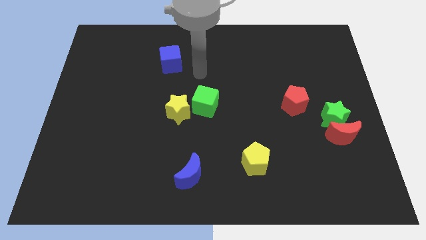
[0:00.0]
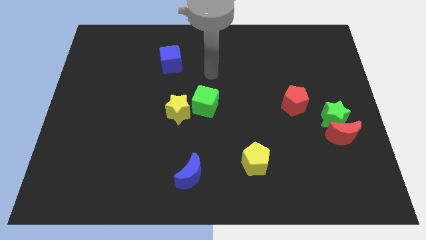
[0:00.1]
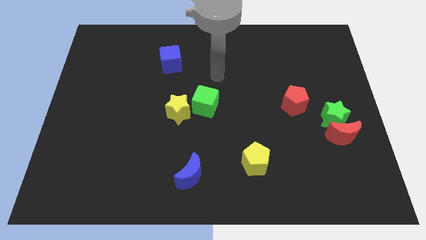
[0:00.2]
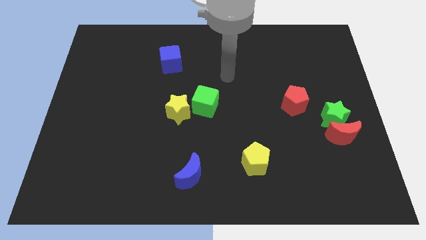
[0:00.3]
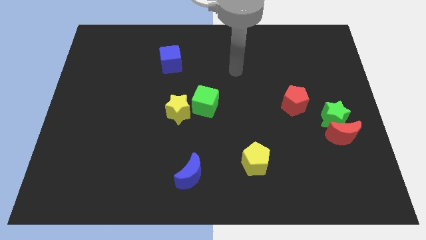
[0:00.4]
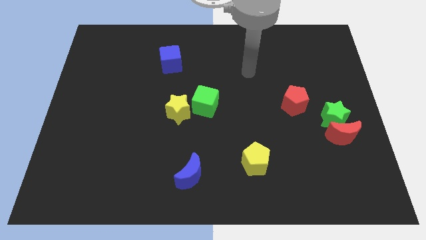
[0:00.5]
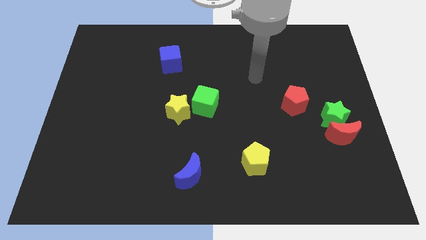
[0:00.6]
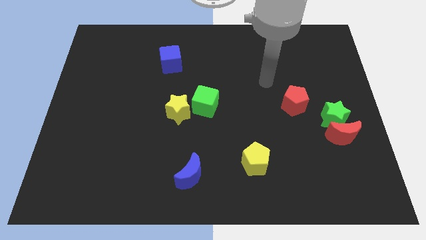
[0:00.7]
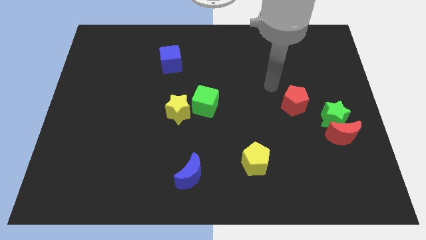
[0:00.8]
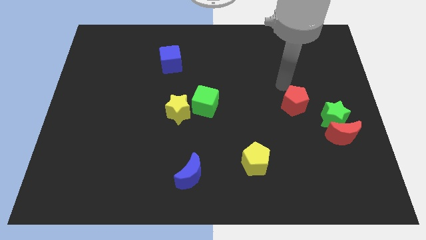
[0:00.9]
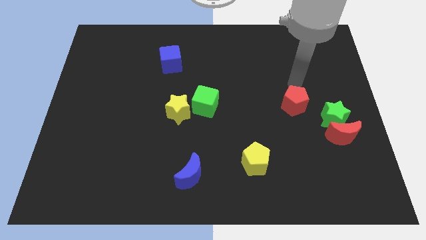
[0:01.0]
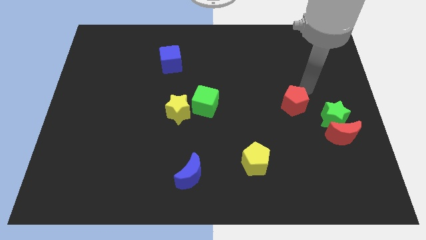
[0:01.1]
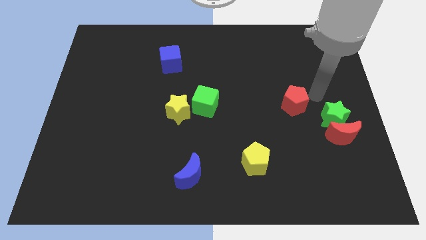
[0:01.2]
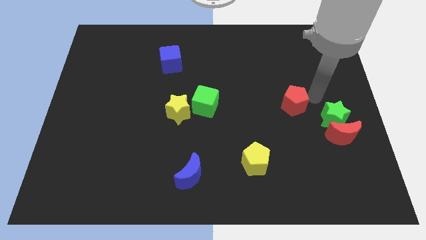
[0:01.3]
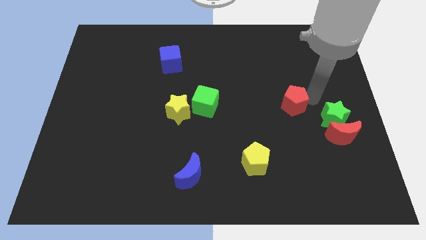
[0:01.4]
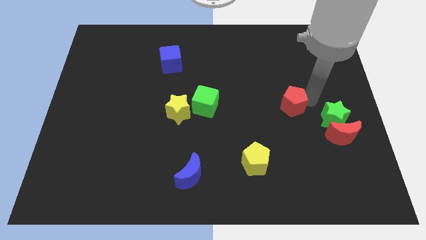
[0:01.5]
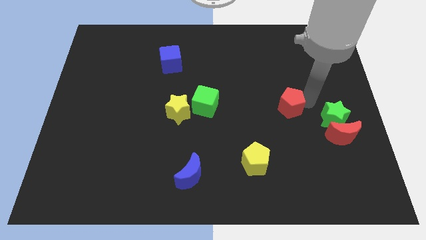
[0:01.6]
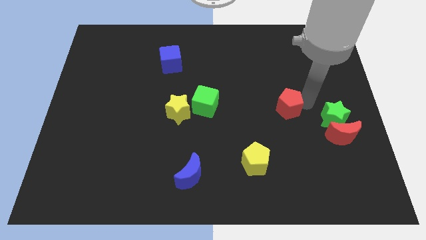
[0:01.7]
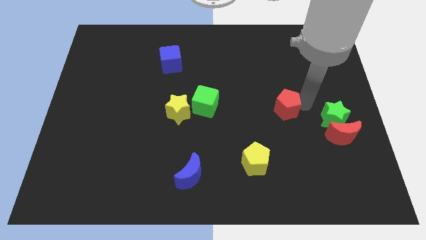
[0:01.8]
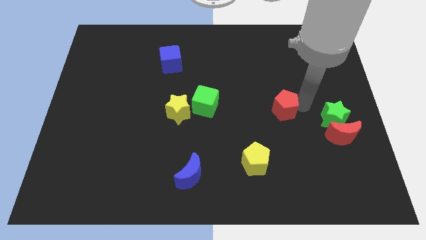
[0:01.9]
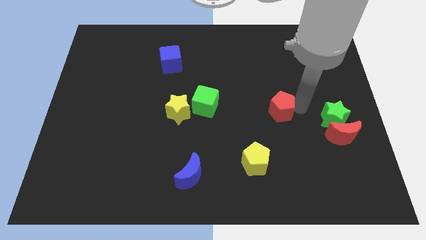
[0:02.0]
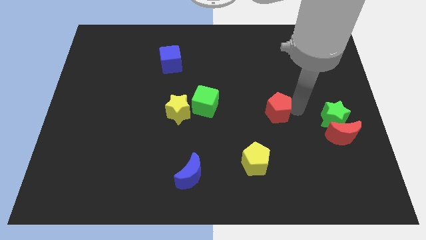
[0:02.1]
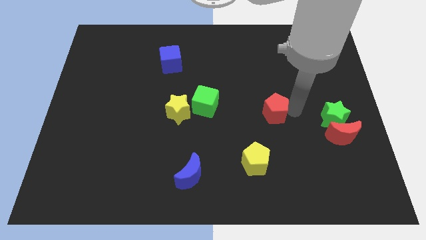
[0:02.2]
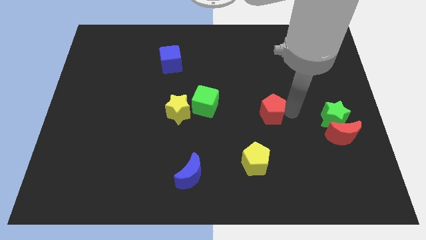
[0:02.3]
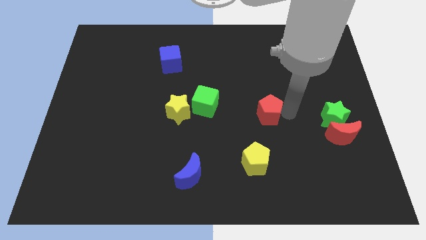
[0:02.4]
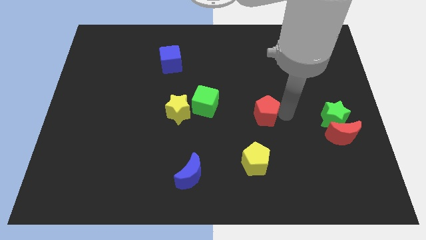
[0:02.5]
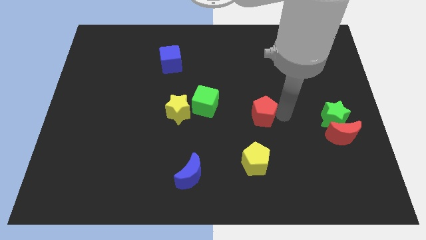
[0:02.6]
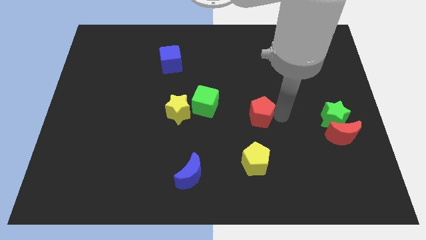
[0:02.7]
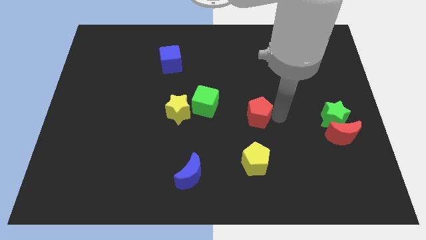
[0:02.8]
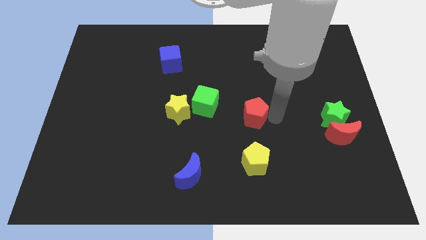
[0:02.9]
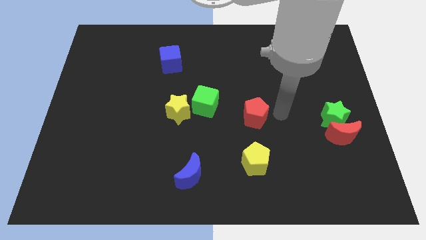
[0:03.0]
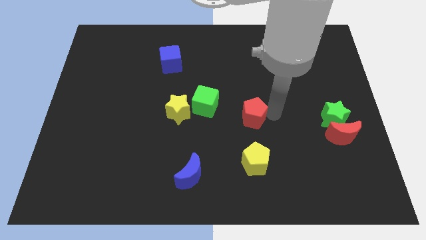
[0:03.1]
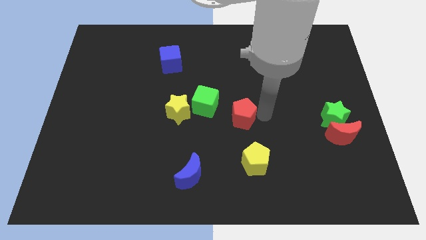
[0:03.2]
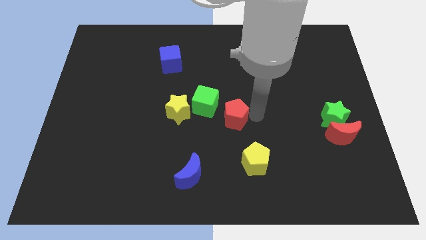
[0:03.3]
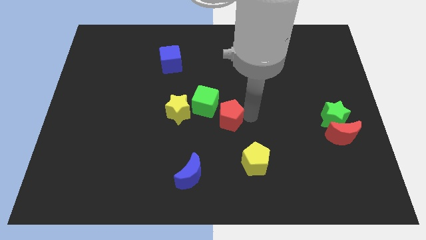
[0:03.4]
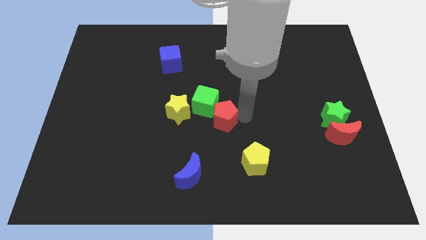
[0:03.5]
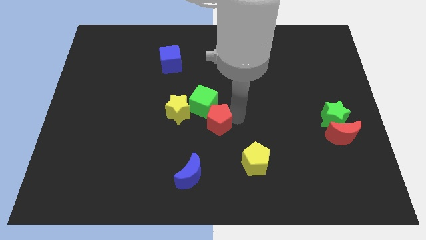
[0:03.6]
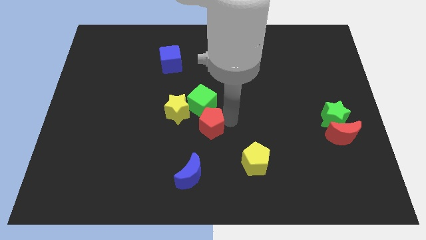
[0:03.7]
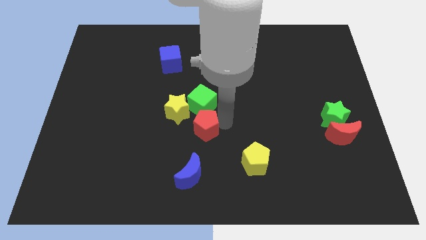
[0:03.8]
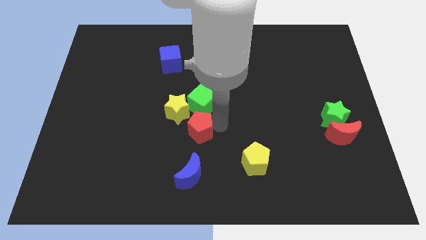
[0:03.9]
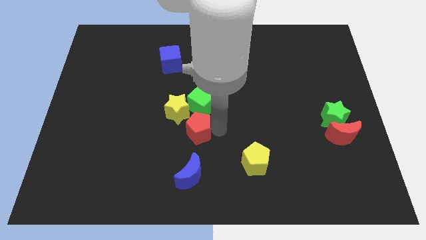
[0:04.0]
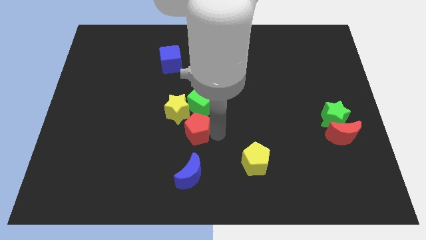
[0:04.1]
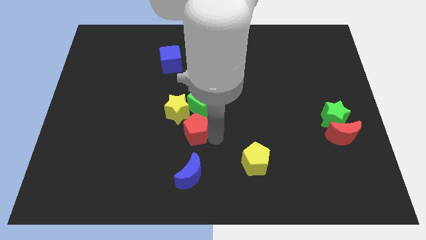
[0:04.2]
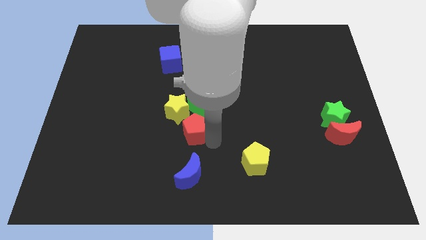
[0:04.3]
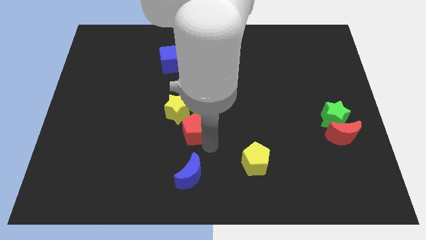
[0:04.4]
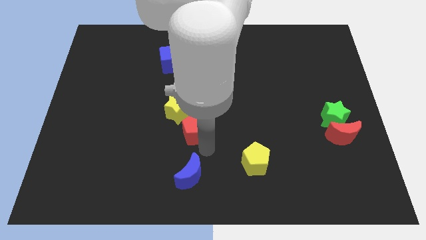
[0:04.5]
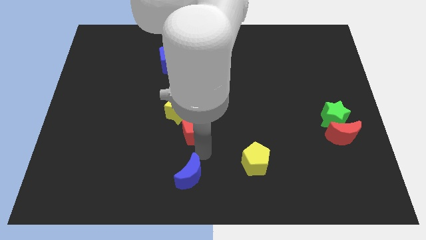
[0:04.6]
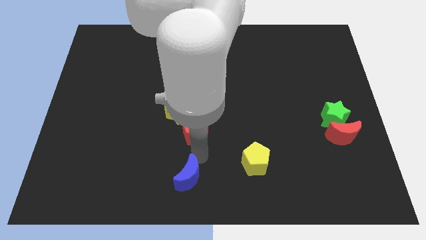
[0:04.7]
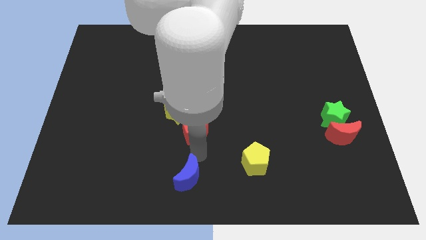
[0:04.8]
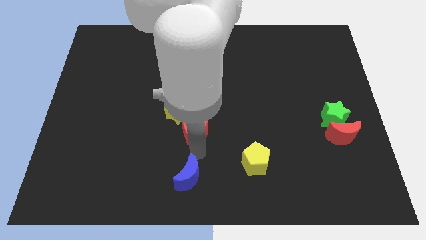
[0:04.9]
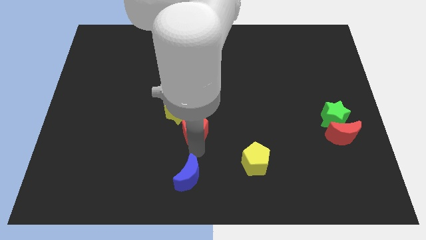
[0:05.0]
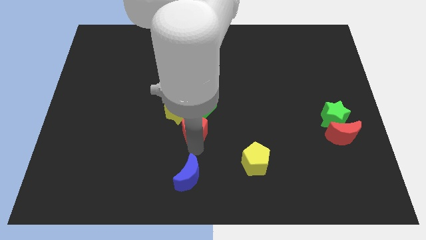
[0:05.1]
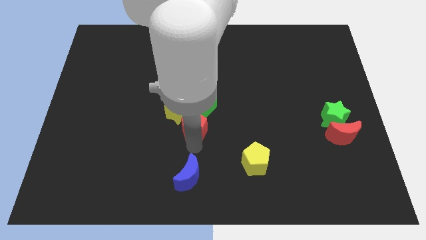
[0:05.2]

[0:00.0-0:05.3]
push the red pentagon close to the yellow star
